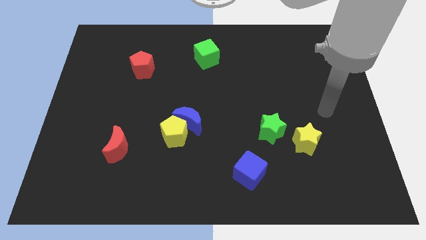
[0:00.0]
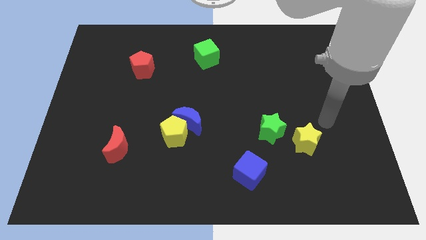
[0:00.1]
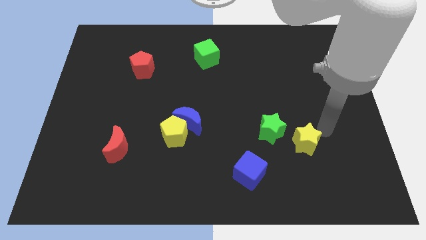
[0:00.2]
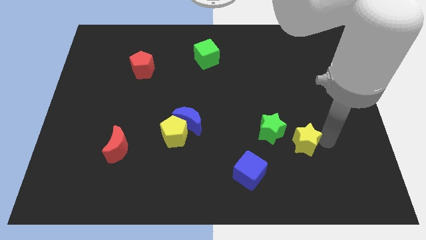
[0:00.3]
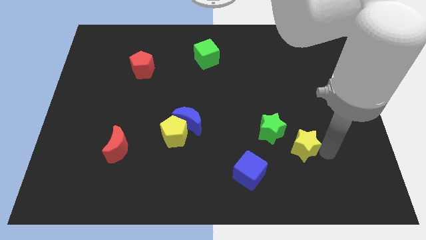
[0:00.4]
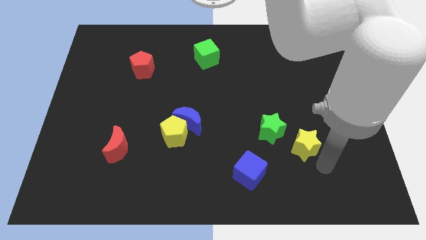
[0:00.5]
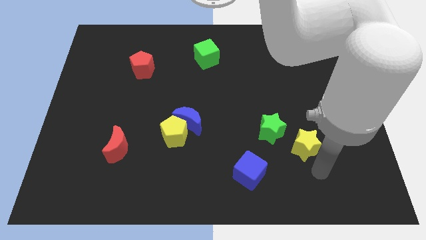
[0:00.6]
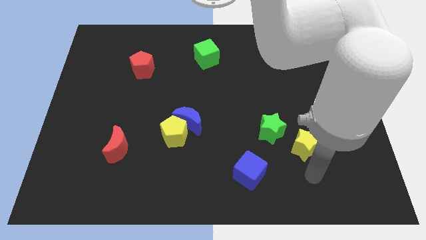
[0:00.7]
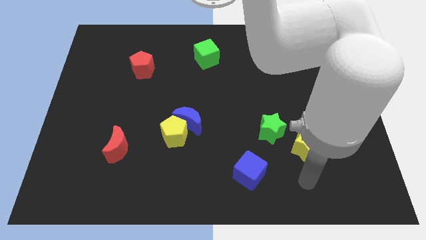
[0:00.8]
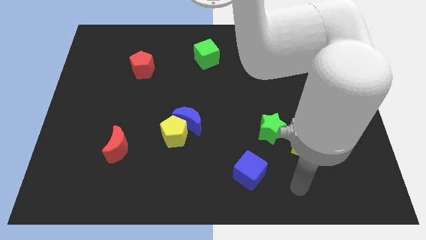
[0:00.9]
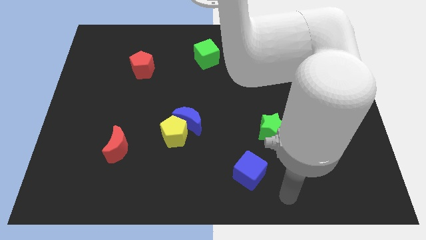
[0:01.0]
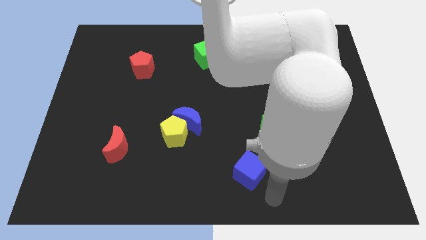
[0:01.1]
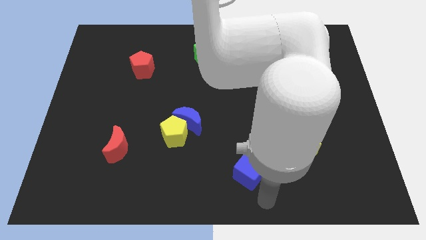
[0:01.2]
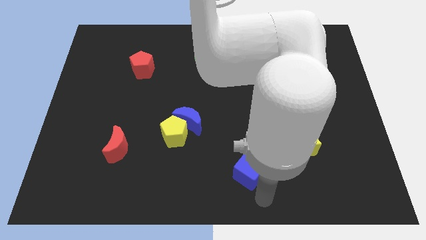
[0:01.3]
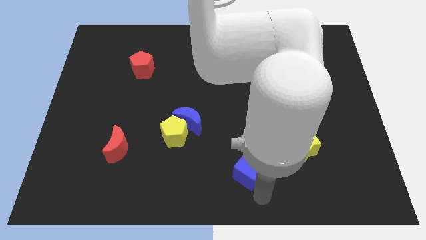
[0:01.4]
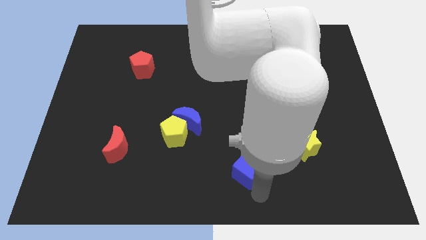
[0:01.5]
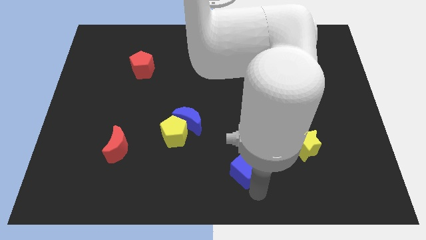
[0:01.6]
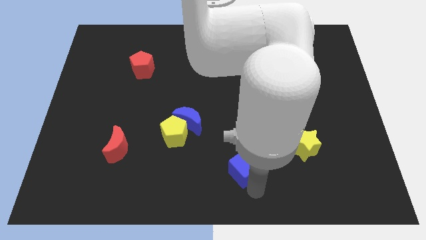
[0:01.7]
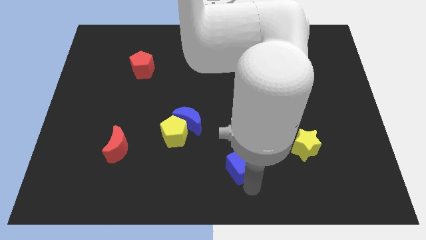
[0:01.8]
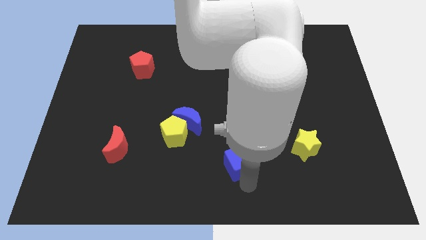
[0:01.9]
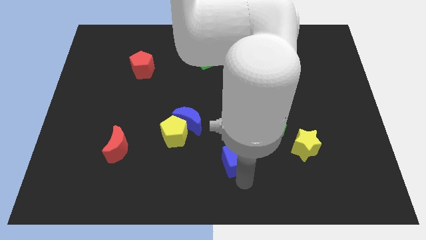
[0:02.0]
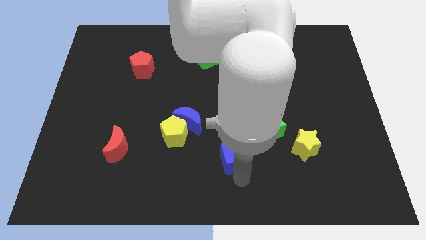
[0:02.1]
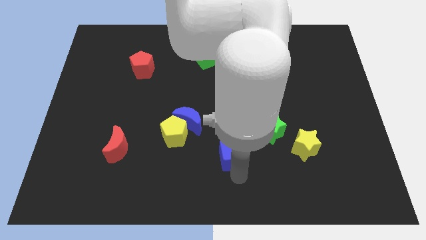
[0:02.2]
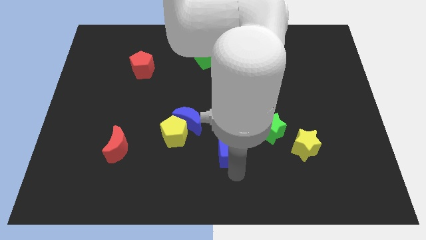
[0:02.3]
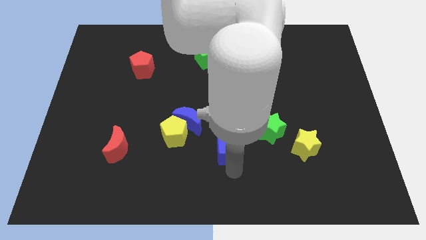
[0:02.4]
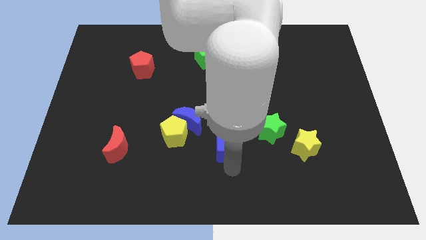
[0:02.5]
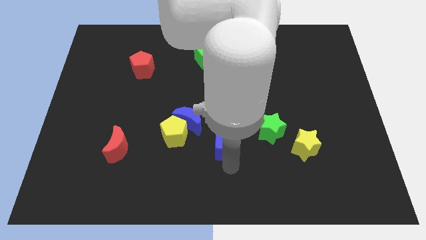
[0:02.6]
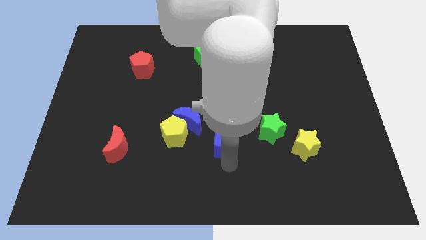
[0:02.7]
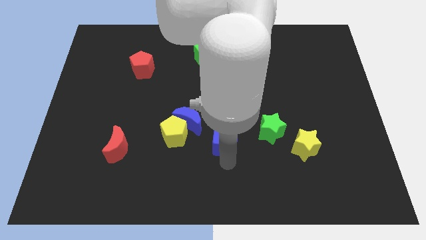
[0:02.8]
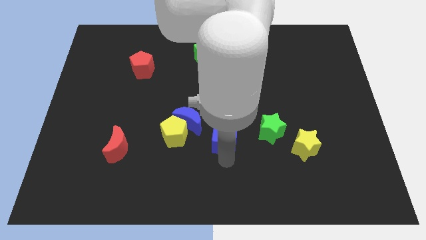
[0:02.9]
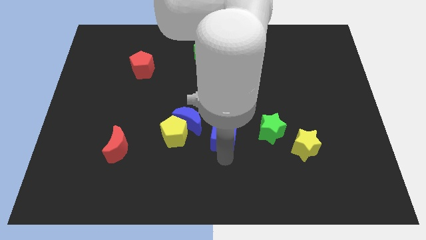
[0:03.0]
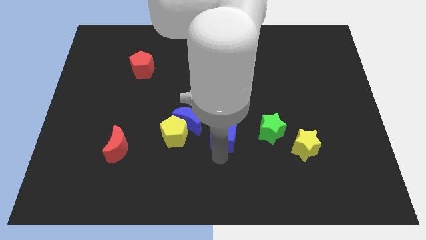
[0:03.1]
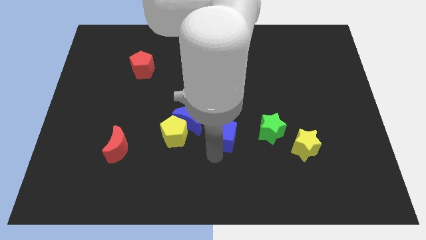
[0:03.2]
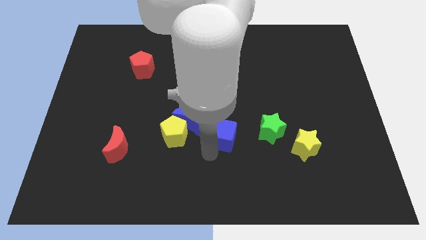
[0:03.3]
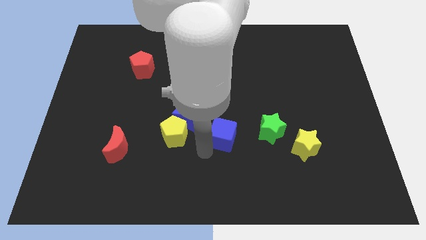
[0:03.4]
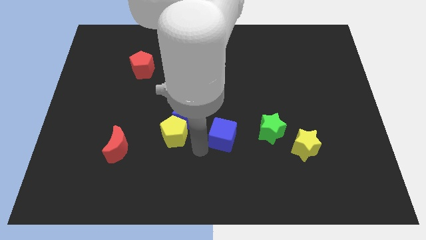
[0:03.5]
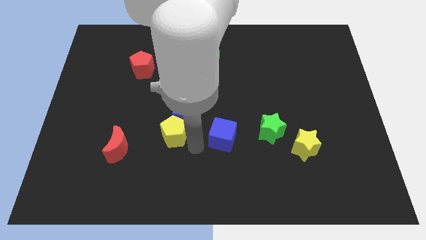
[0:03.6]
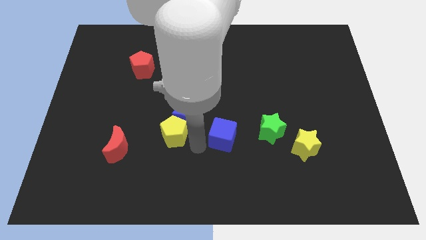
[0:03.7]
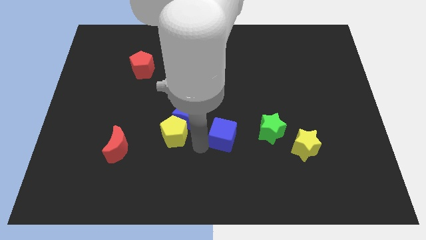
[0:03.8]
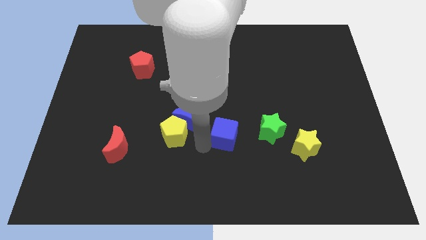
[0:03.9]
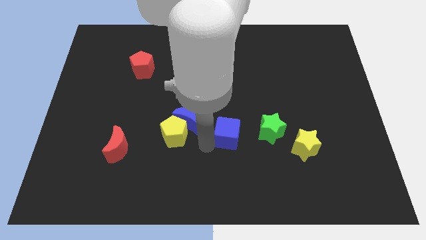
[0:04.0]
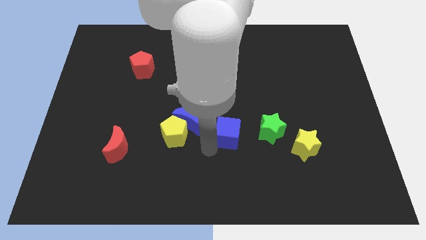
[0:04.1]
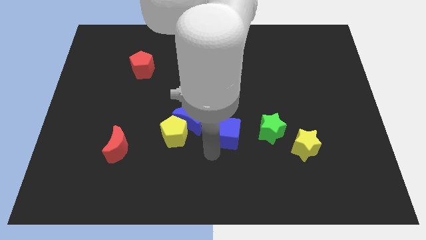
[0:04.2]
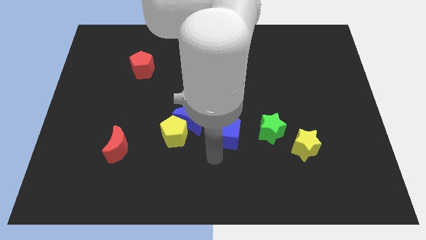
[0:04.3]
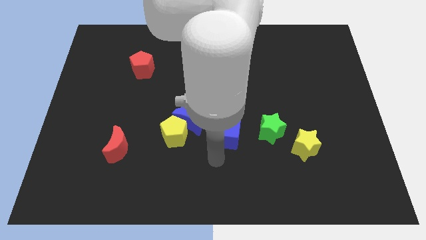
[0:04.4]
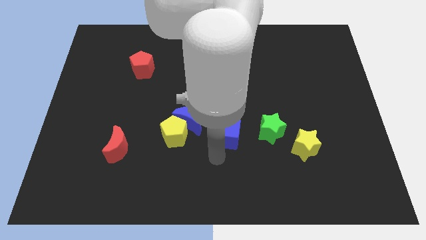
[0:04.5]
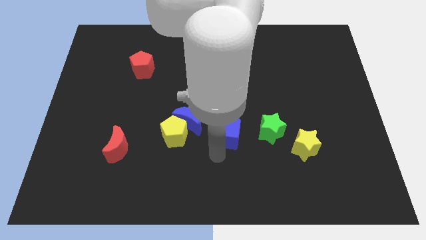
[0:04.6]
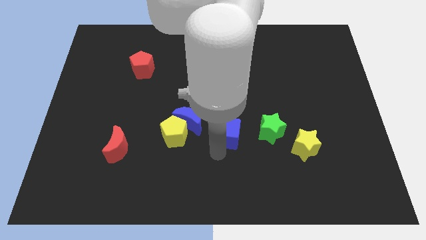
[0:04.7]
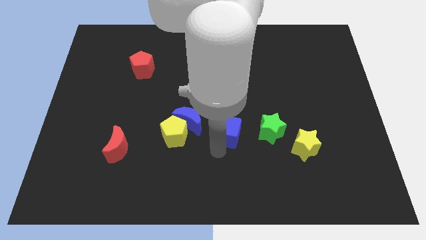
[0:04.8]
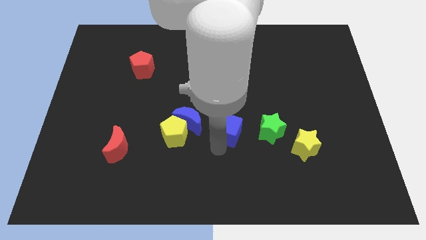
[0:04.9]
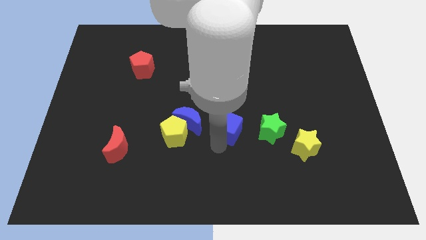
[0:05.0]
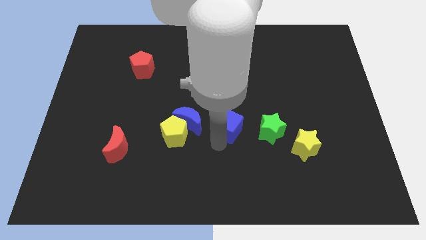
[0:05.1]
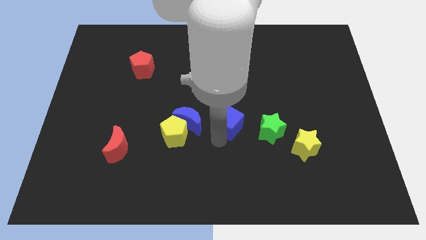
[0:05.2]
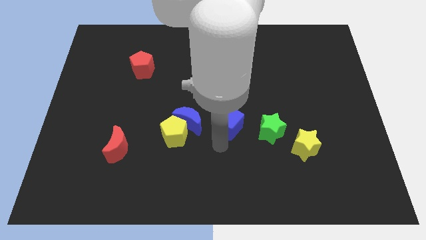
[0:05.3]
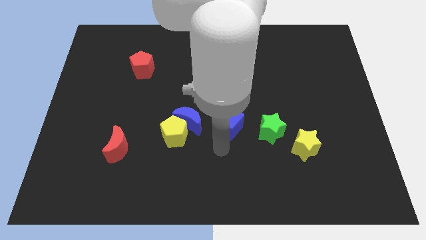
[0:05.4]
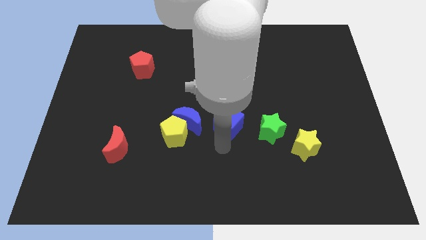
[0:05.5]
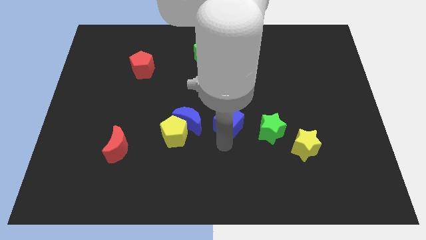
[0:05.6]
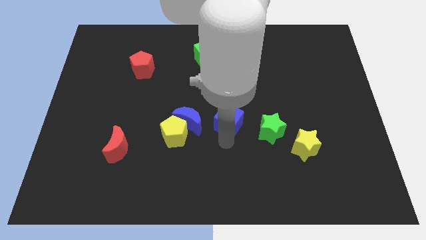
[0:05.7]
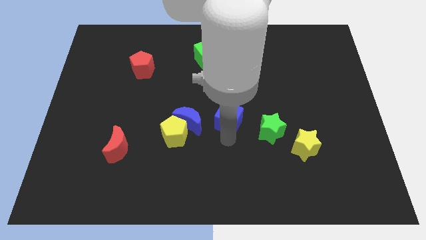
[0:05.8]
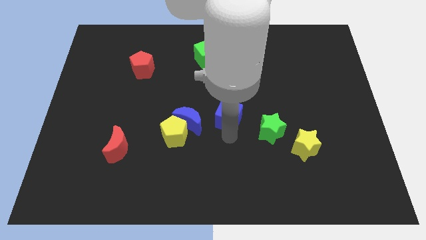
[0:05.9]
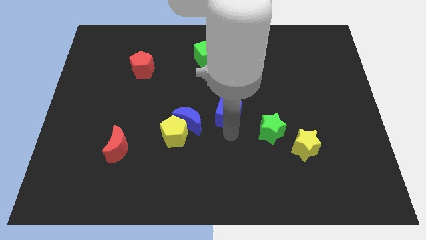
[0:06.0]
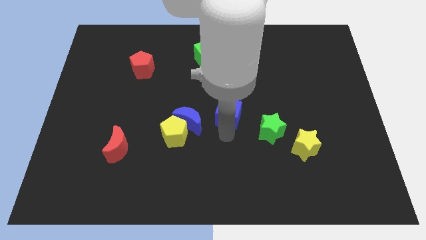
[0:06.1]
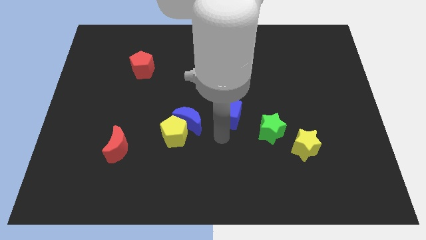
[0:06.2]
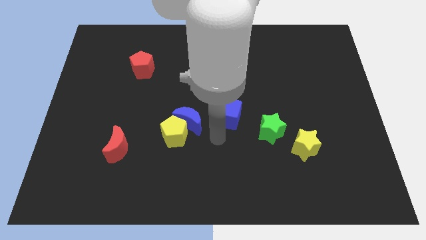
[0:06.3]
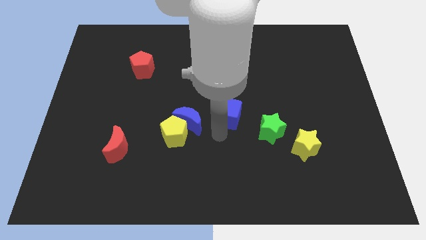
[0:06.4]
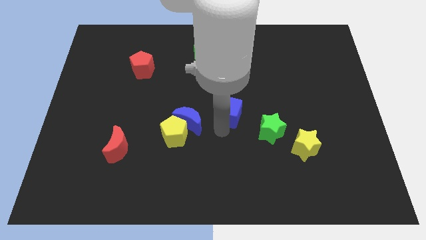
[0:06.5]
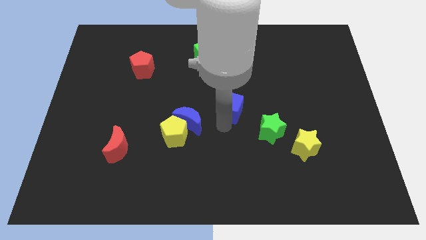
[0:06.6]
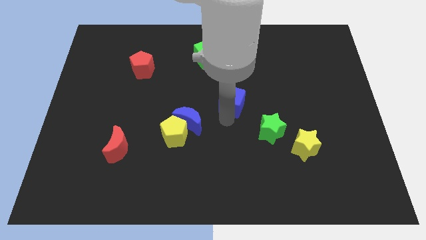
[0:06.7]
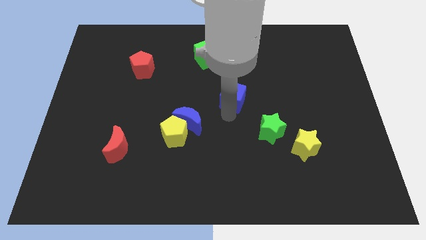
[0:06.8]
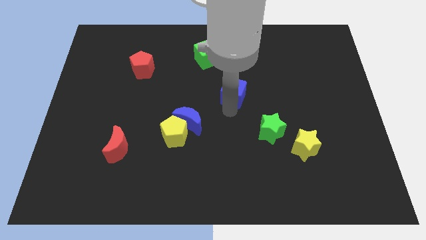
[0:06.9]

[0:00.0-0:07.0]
slide the blue cube upwards

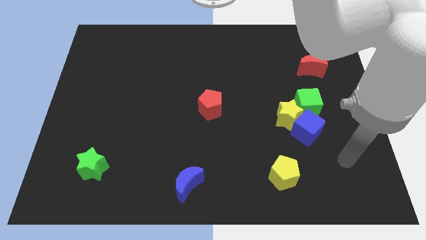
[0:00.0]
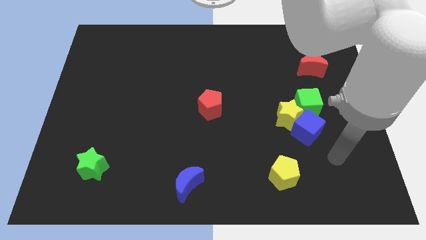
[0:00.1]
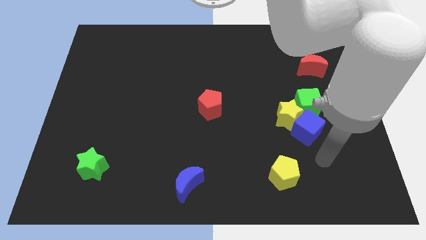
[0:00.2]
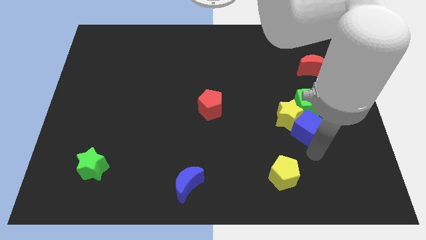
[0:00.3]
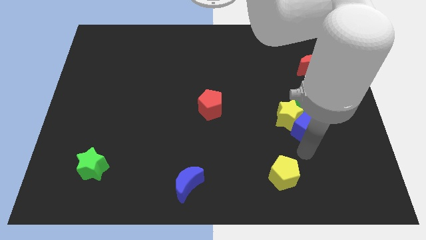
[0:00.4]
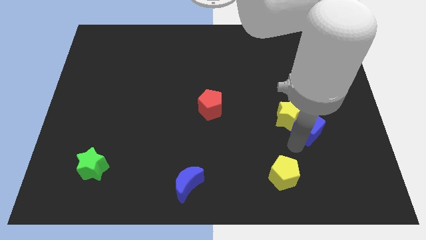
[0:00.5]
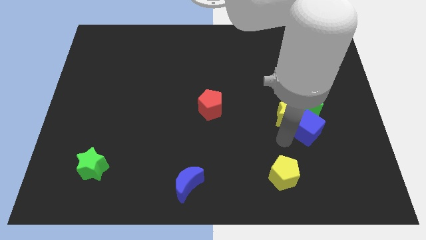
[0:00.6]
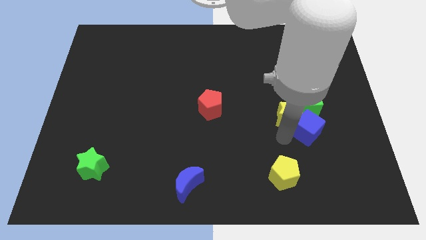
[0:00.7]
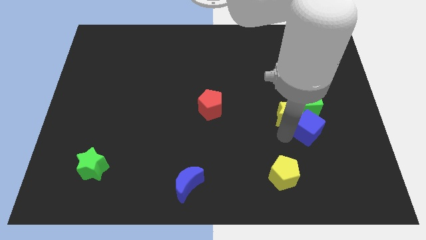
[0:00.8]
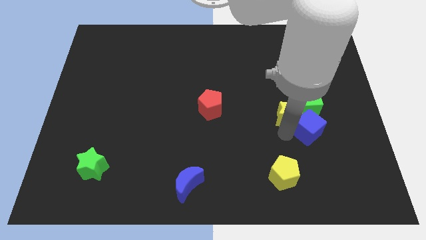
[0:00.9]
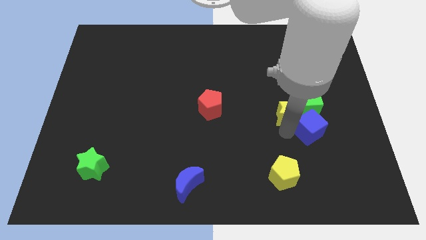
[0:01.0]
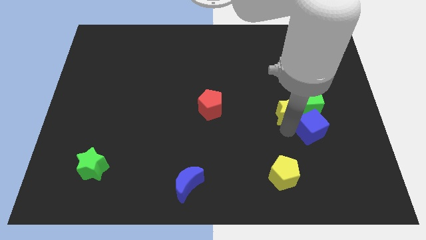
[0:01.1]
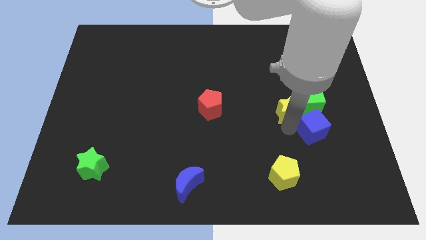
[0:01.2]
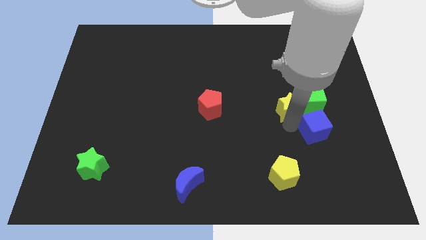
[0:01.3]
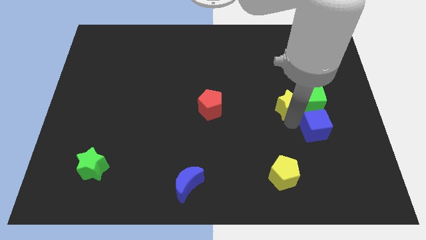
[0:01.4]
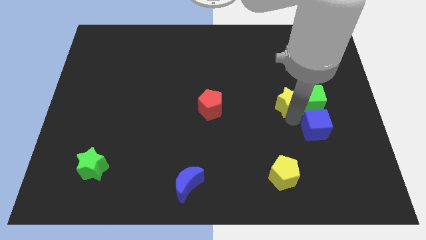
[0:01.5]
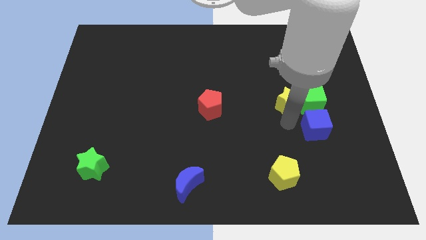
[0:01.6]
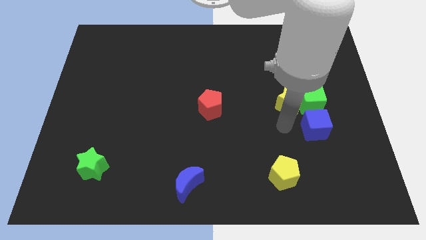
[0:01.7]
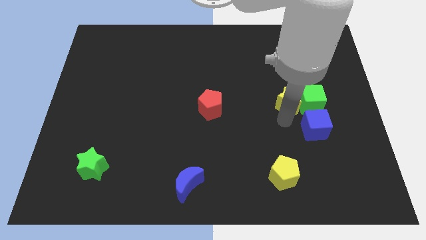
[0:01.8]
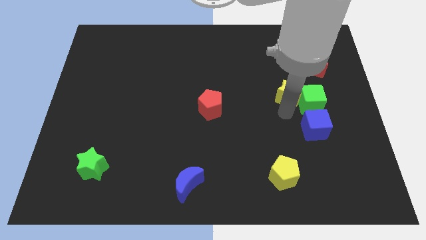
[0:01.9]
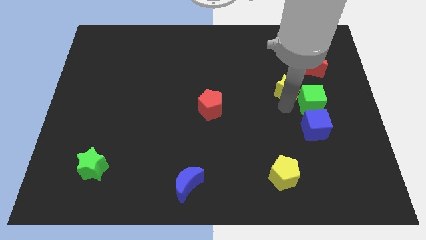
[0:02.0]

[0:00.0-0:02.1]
push the yellow star upwards a little
